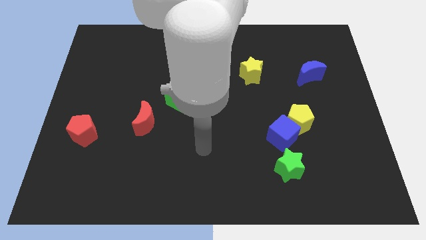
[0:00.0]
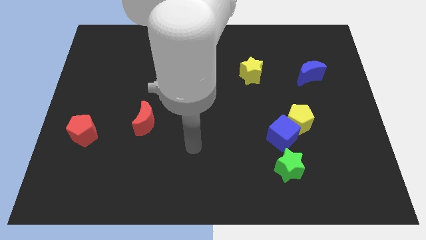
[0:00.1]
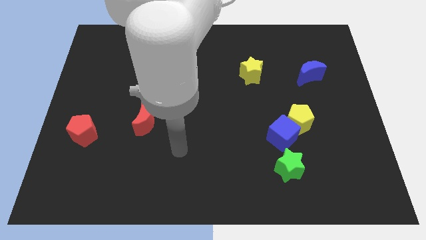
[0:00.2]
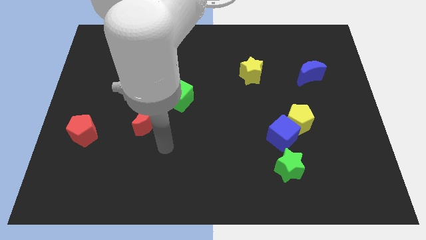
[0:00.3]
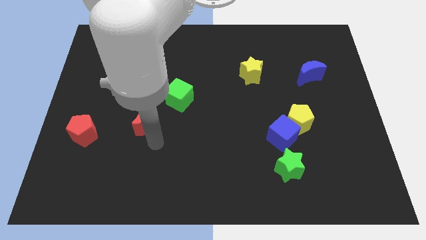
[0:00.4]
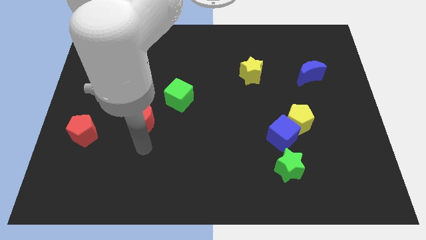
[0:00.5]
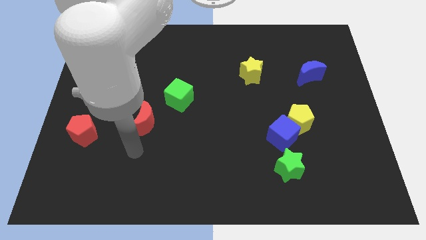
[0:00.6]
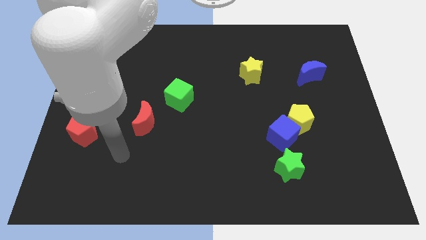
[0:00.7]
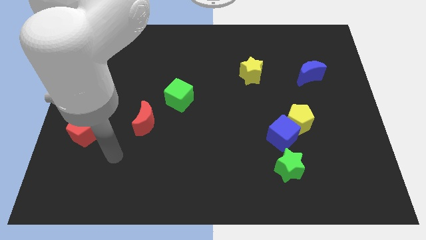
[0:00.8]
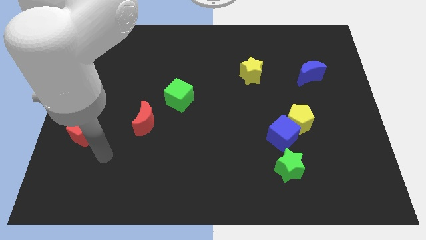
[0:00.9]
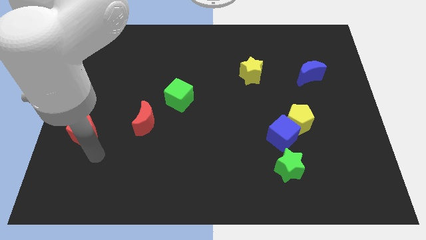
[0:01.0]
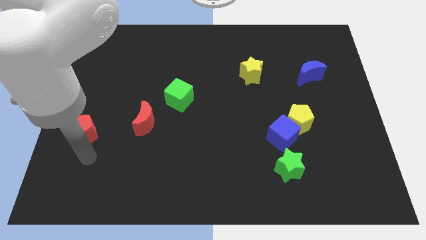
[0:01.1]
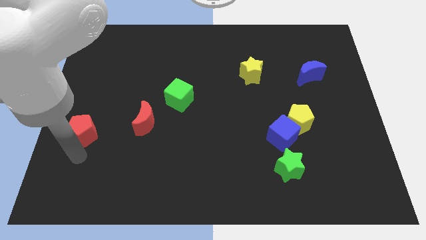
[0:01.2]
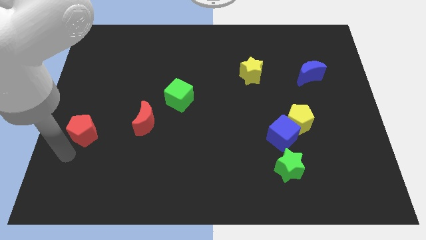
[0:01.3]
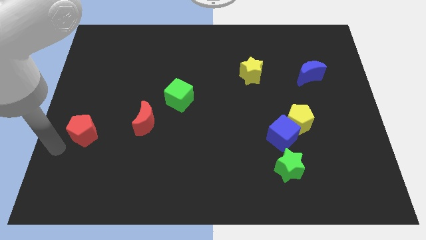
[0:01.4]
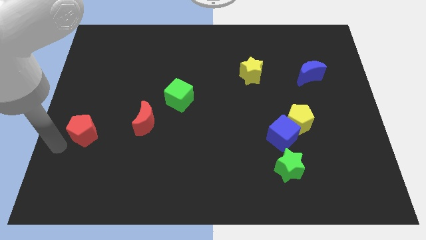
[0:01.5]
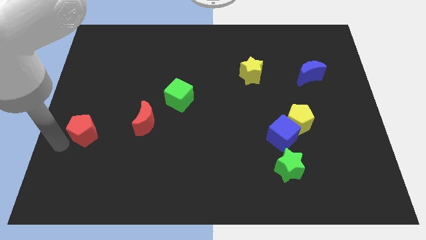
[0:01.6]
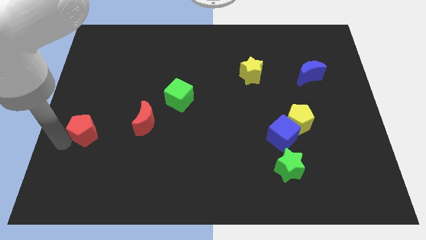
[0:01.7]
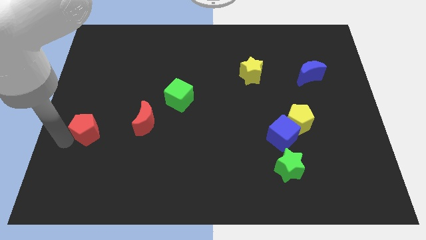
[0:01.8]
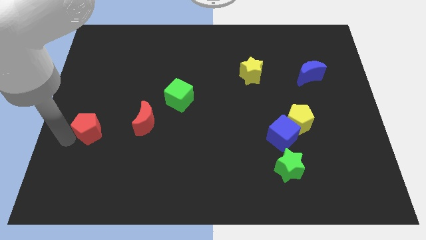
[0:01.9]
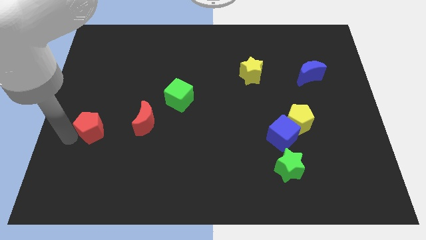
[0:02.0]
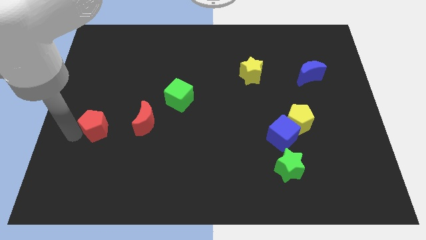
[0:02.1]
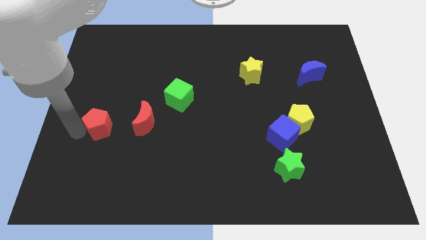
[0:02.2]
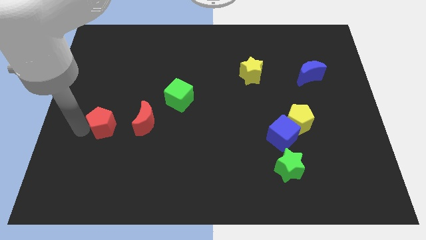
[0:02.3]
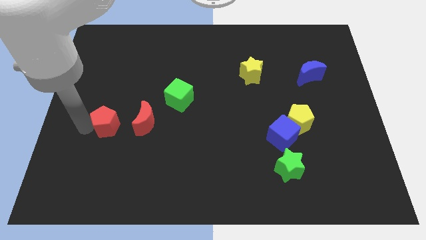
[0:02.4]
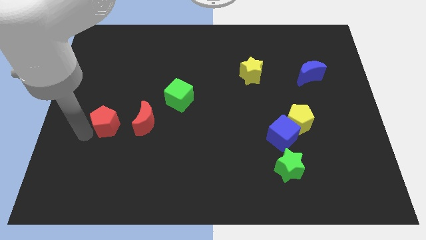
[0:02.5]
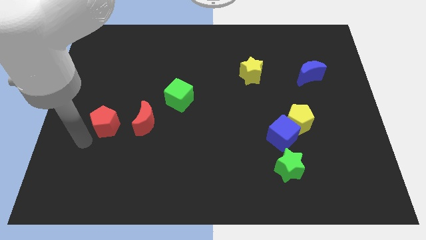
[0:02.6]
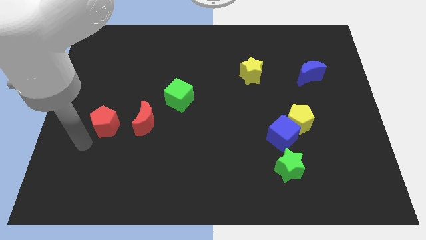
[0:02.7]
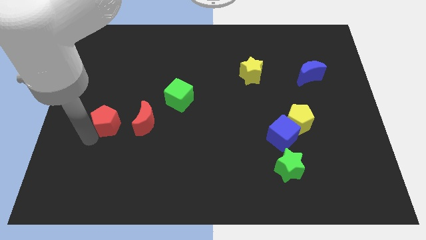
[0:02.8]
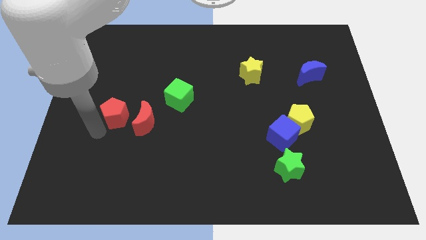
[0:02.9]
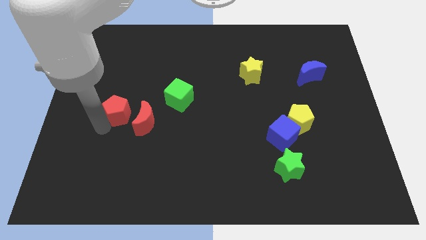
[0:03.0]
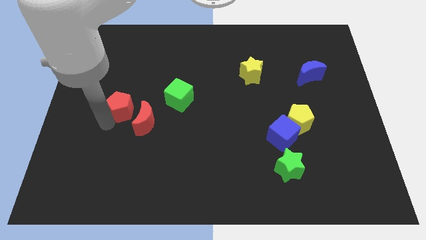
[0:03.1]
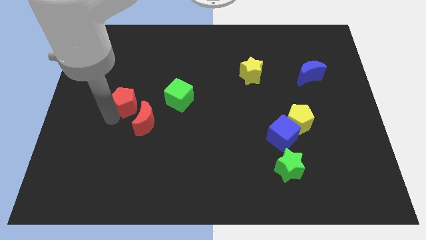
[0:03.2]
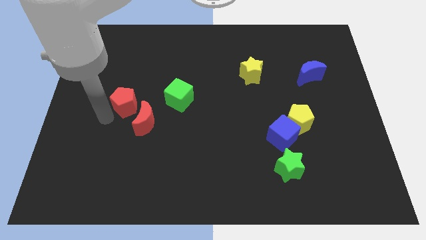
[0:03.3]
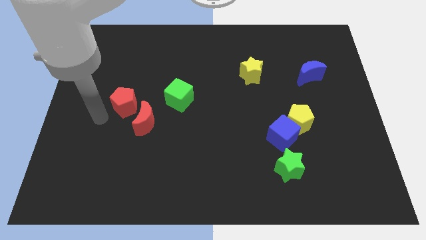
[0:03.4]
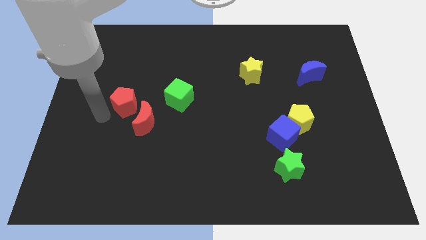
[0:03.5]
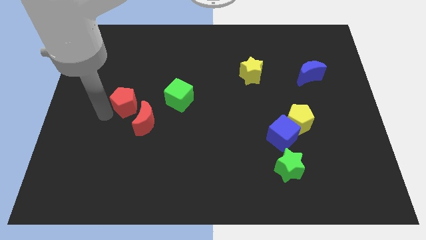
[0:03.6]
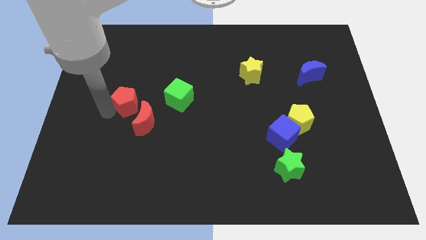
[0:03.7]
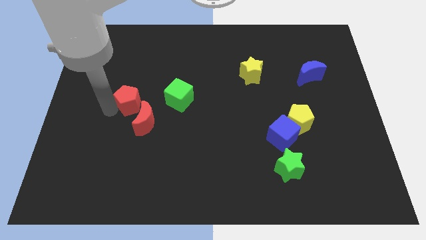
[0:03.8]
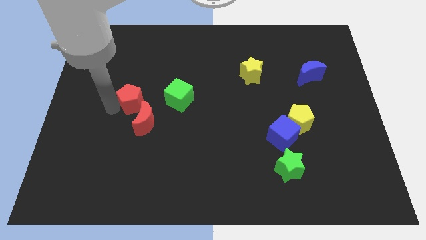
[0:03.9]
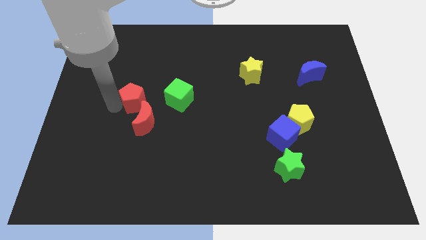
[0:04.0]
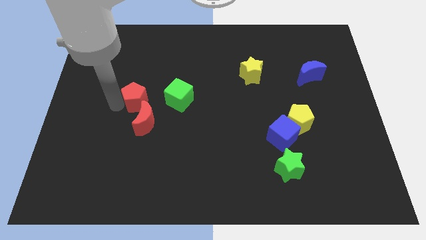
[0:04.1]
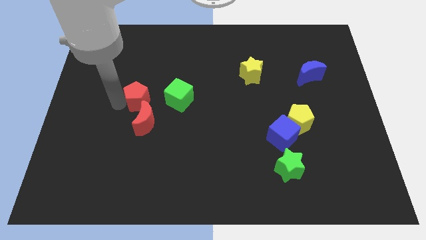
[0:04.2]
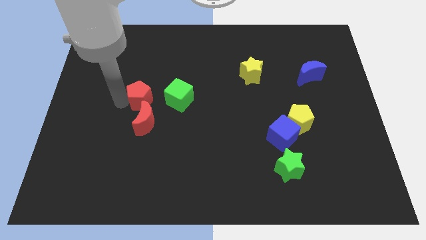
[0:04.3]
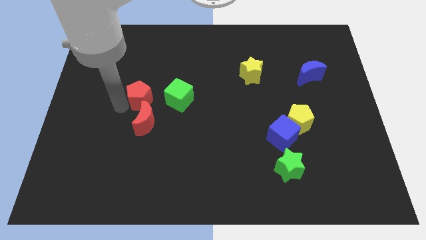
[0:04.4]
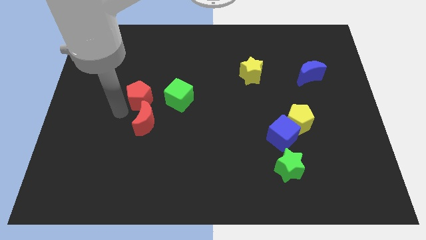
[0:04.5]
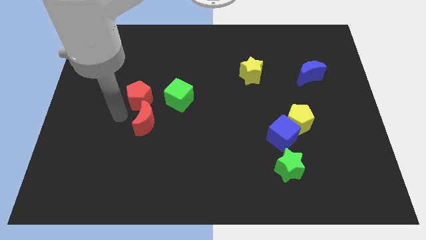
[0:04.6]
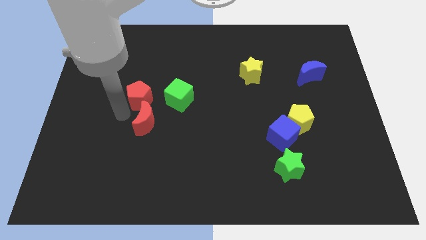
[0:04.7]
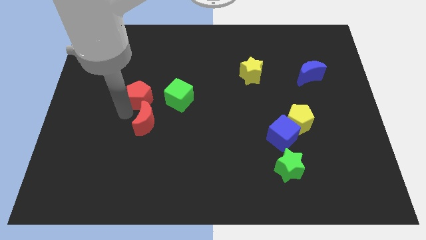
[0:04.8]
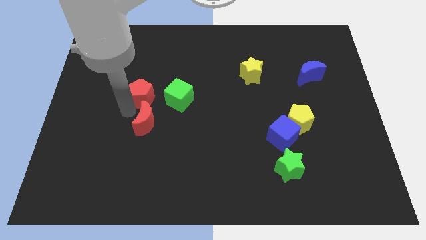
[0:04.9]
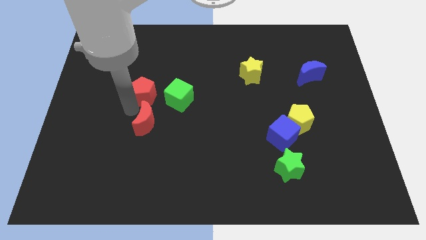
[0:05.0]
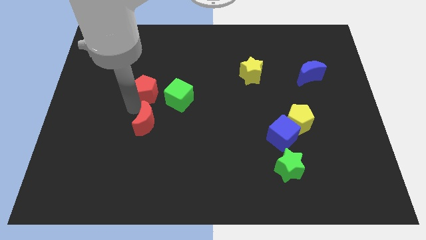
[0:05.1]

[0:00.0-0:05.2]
push the red pentagon to the top left side of the green cube

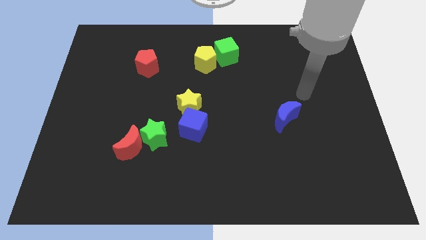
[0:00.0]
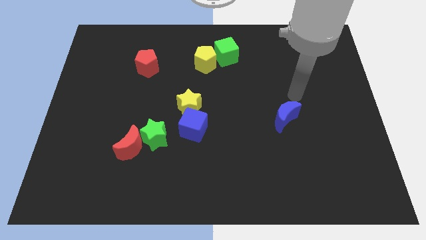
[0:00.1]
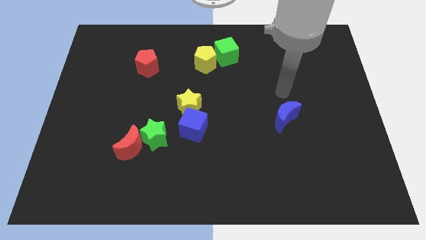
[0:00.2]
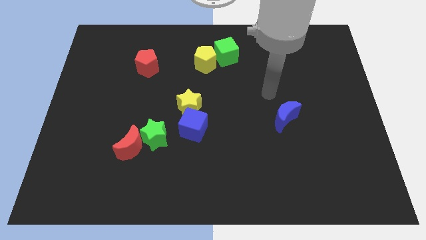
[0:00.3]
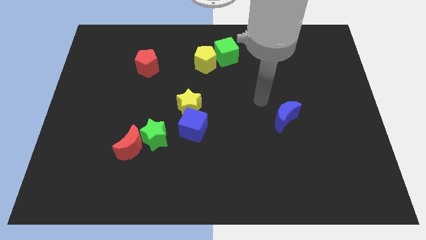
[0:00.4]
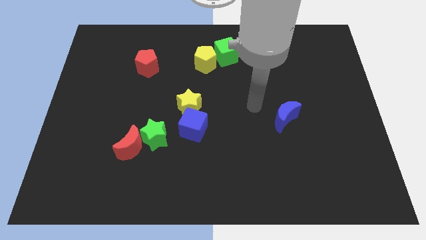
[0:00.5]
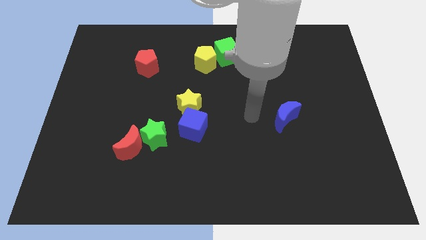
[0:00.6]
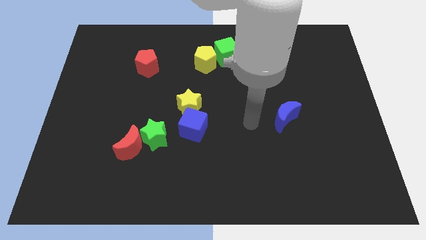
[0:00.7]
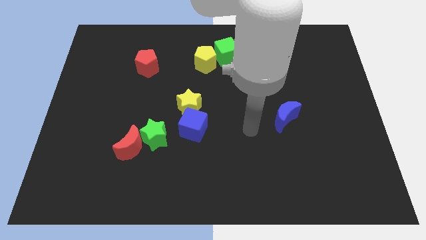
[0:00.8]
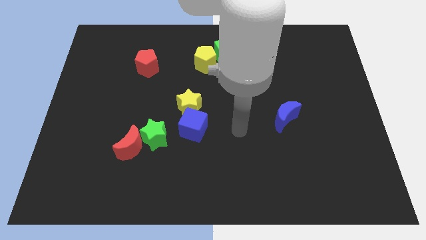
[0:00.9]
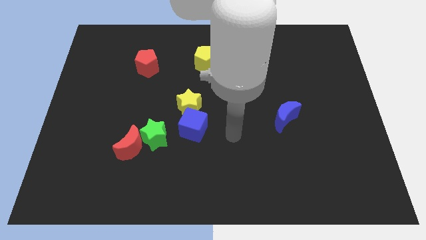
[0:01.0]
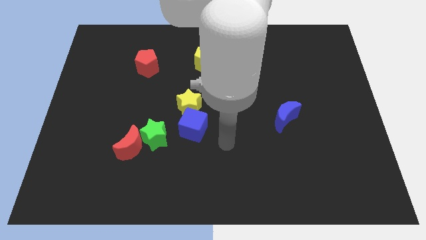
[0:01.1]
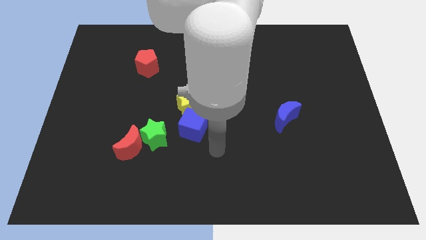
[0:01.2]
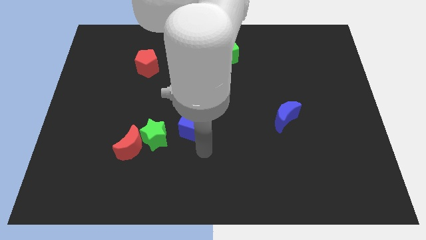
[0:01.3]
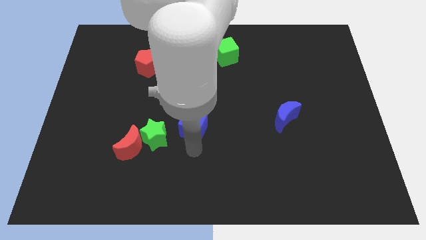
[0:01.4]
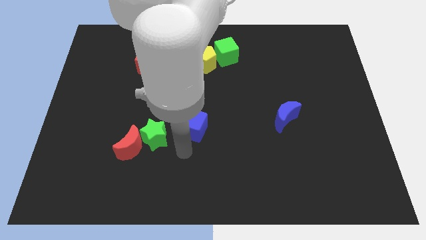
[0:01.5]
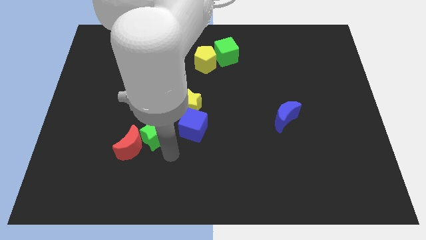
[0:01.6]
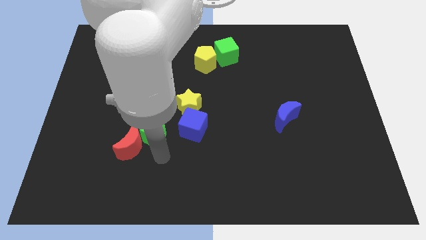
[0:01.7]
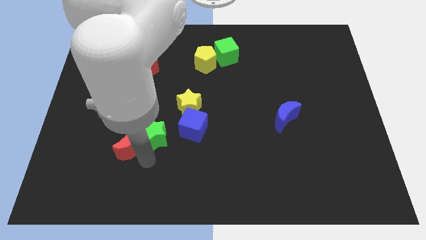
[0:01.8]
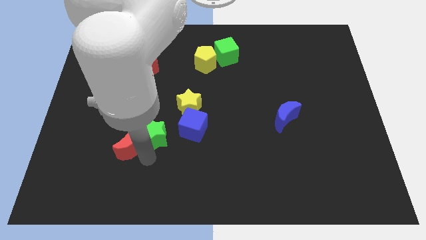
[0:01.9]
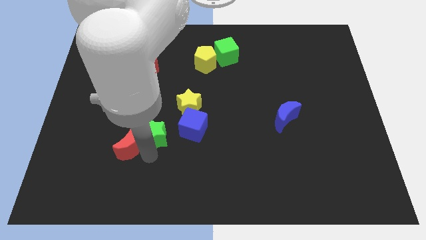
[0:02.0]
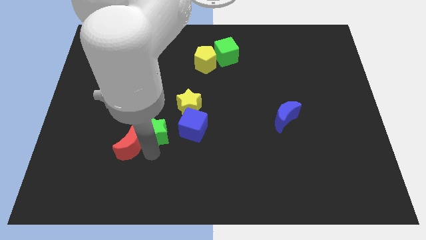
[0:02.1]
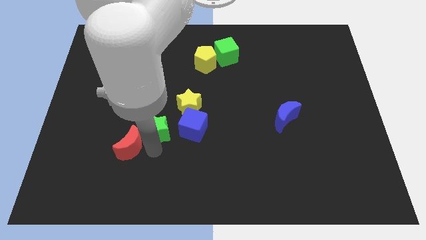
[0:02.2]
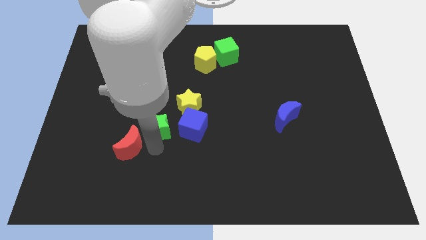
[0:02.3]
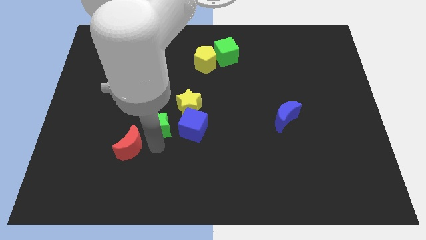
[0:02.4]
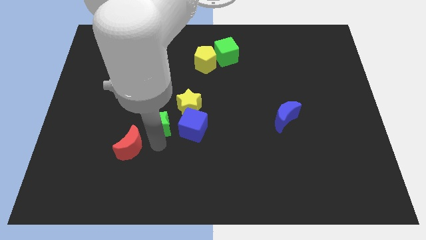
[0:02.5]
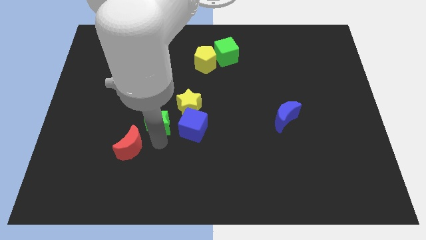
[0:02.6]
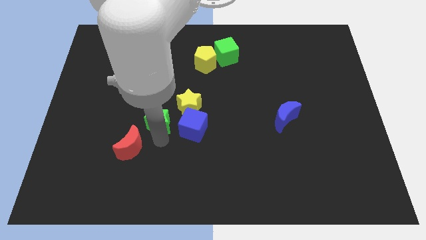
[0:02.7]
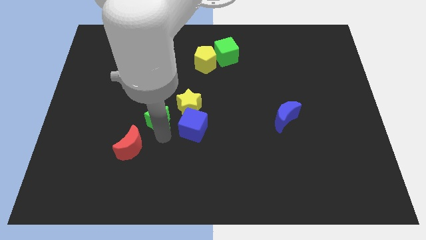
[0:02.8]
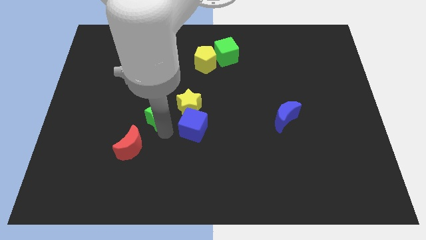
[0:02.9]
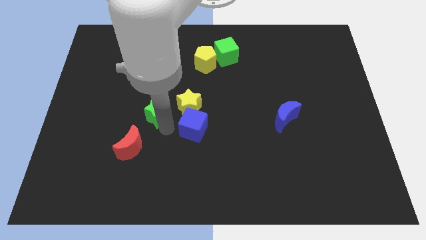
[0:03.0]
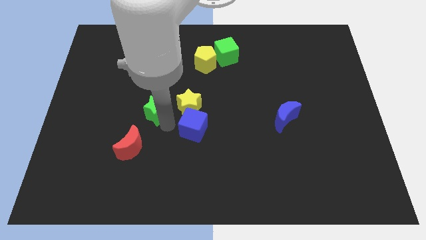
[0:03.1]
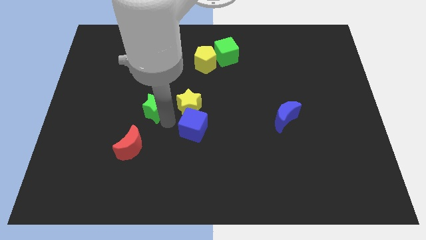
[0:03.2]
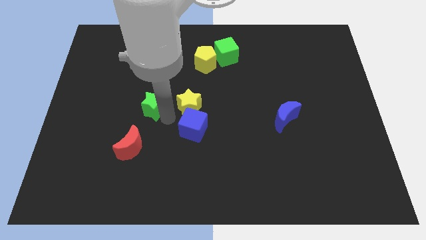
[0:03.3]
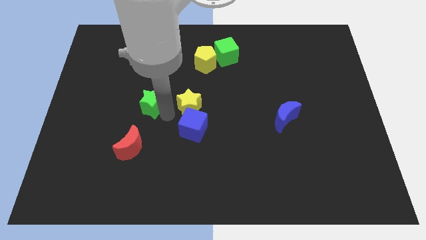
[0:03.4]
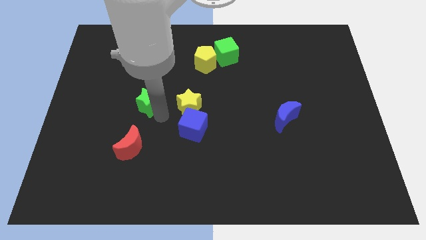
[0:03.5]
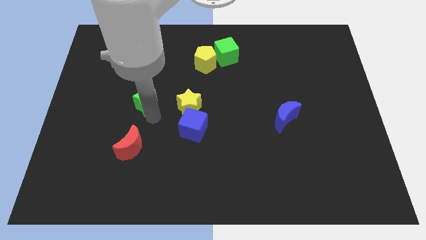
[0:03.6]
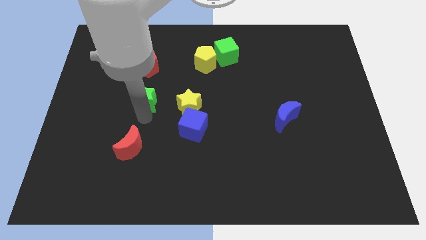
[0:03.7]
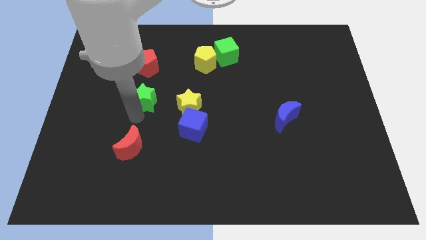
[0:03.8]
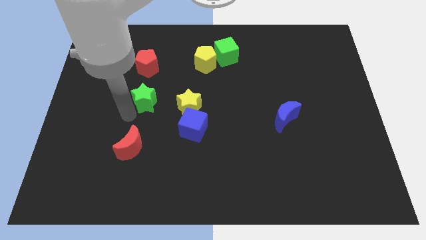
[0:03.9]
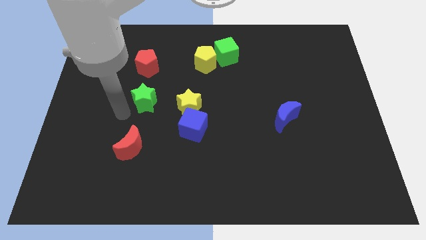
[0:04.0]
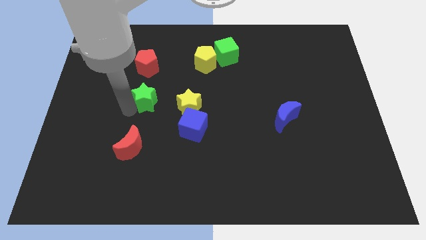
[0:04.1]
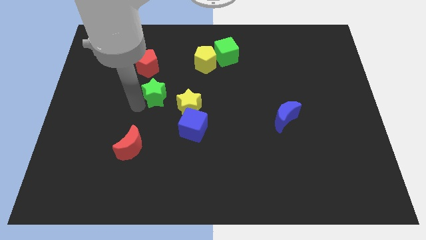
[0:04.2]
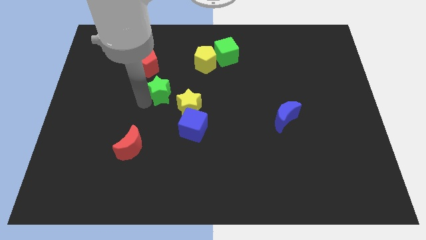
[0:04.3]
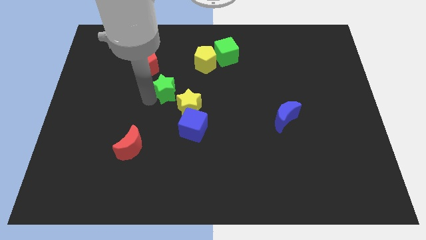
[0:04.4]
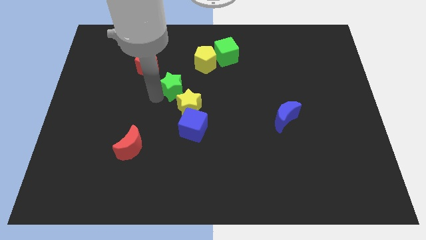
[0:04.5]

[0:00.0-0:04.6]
push the green star diagonally down and to the left of the yellow pentagon
